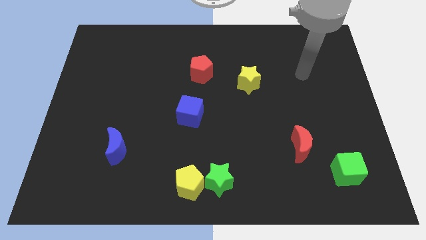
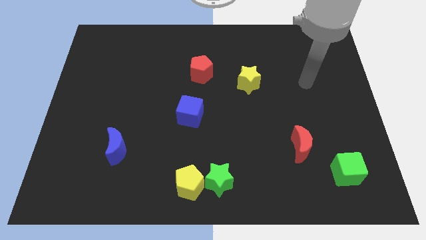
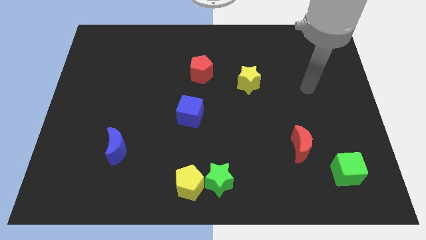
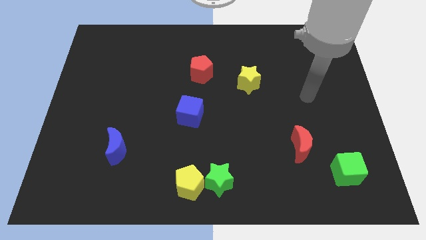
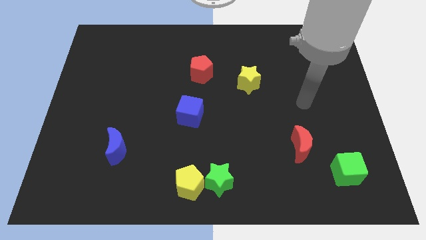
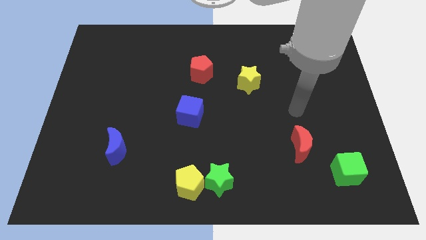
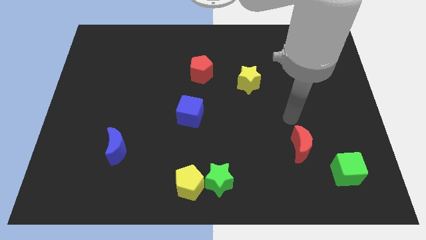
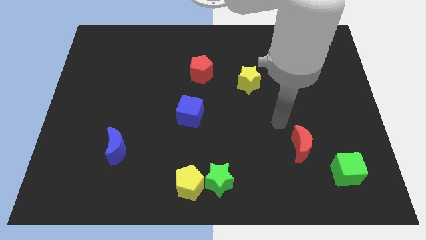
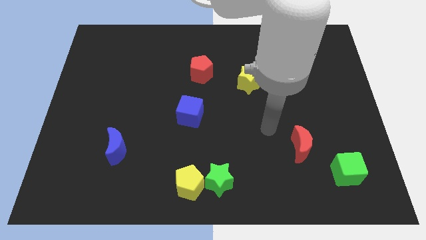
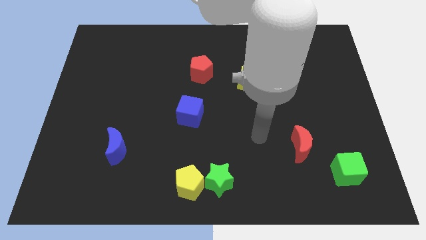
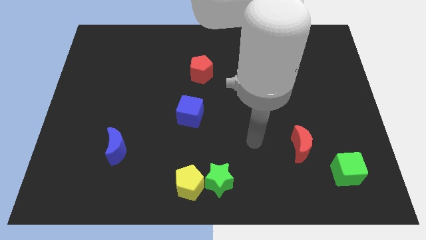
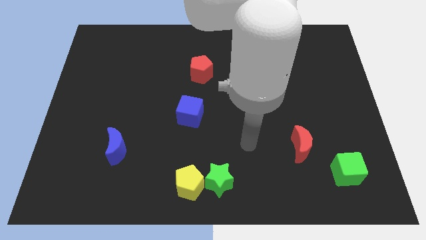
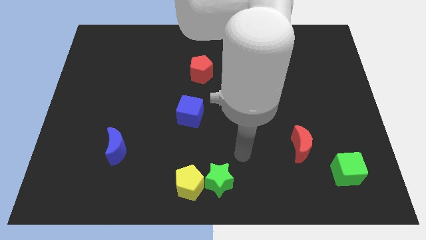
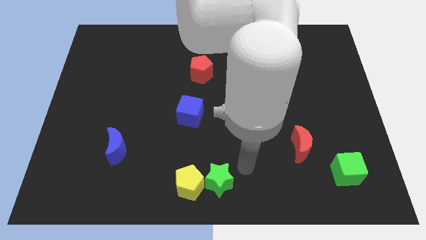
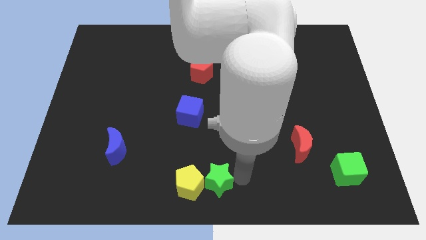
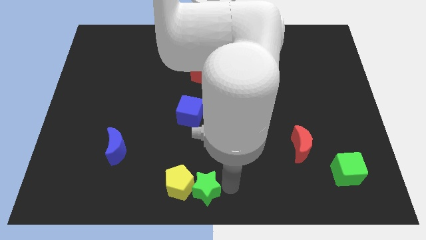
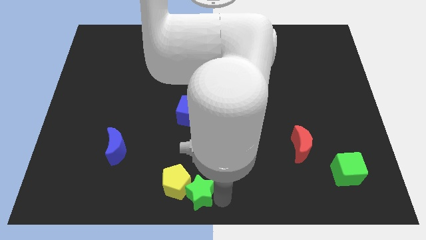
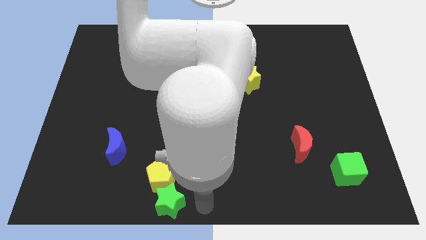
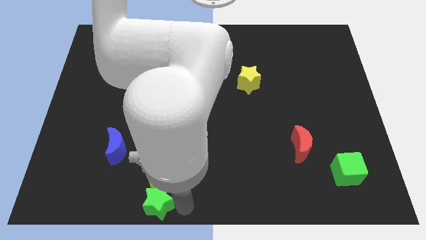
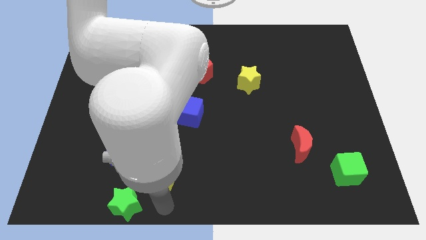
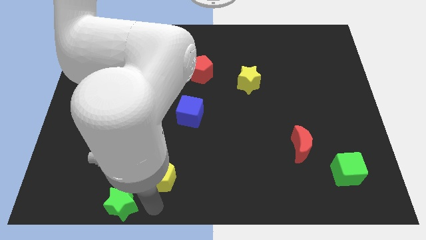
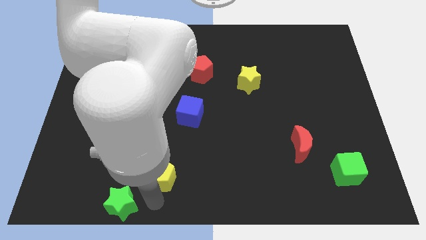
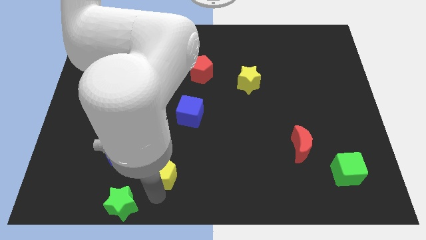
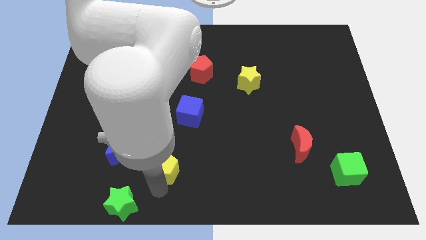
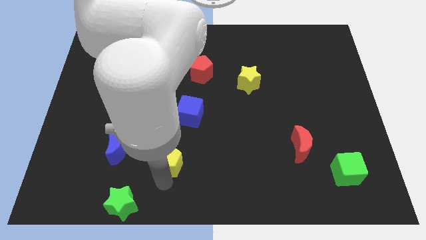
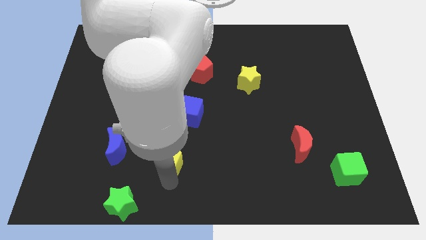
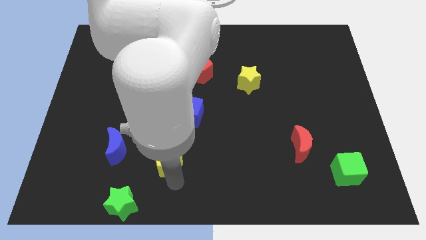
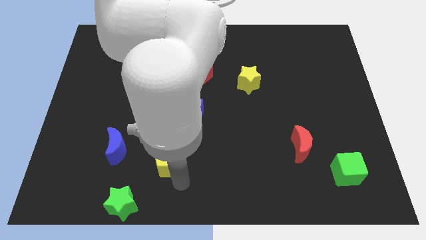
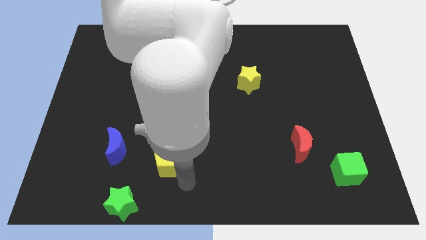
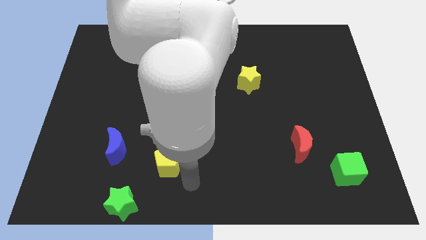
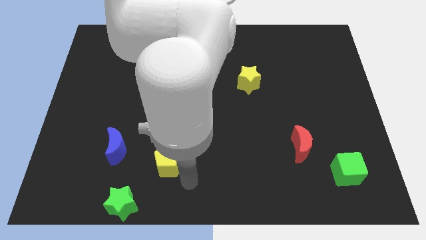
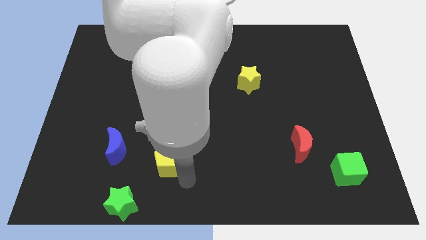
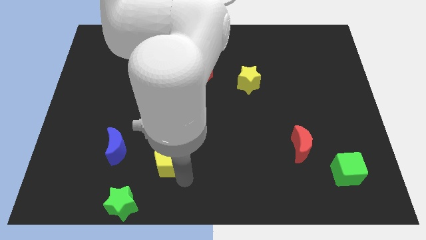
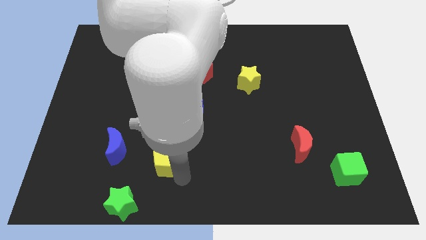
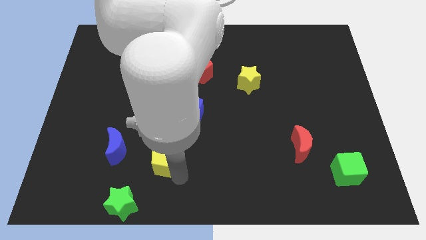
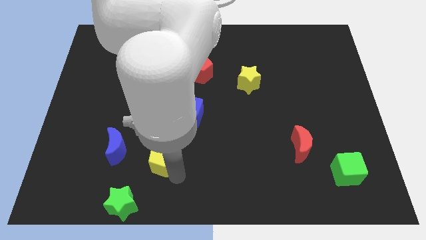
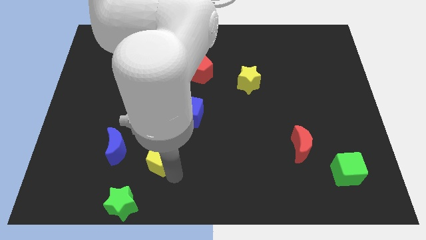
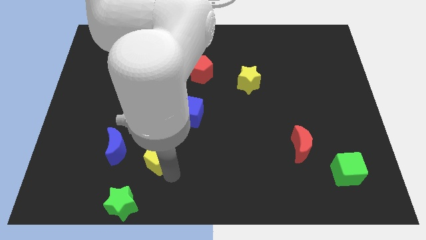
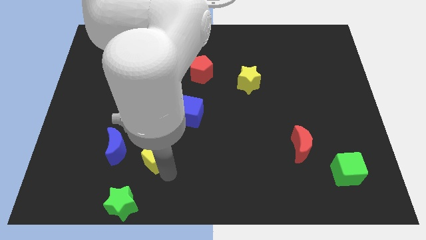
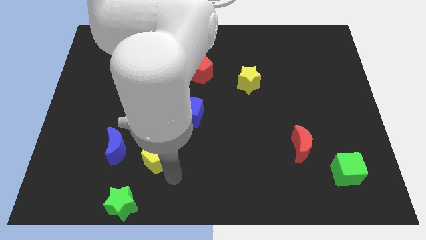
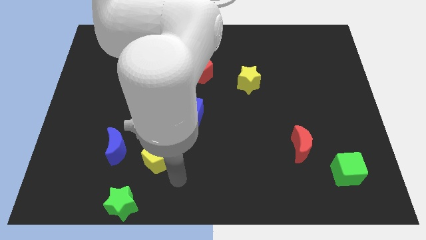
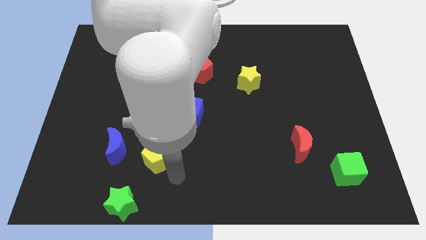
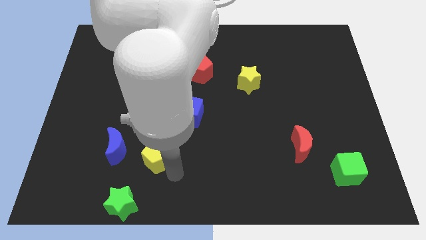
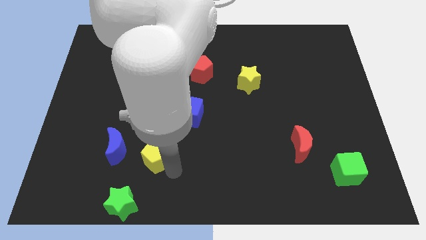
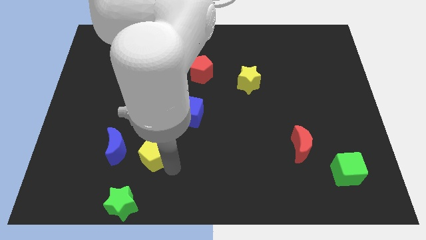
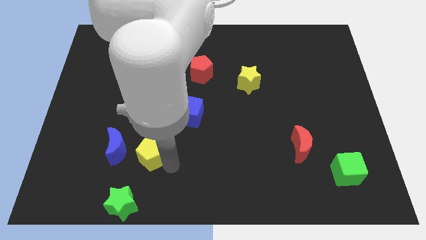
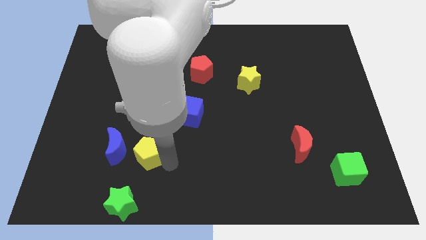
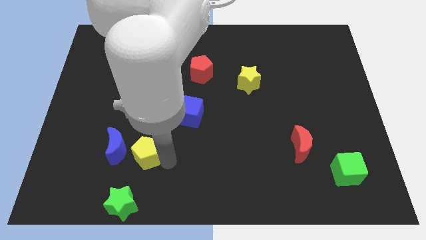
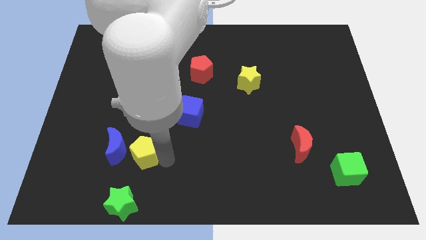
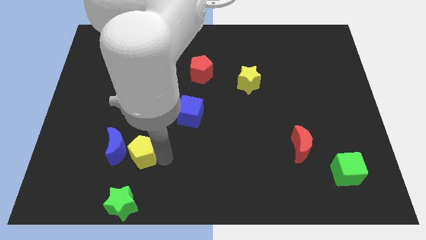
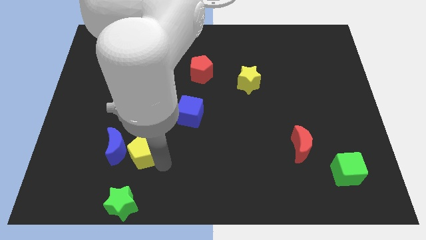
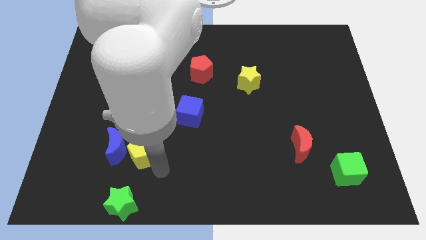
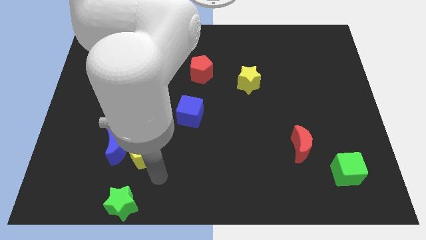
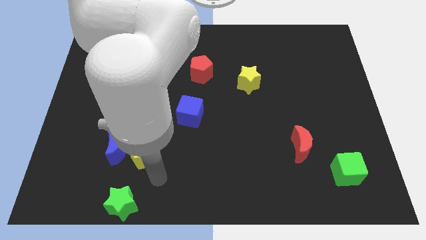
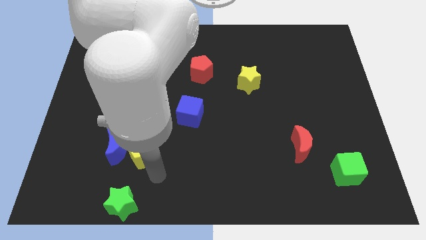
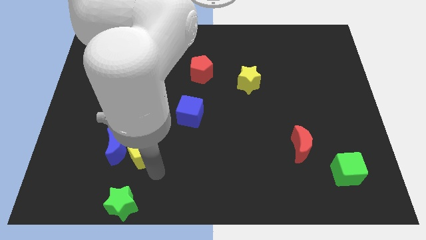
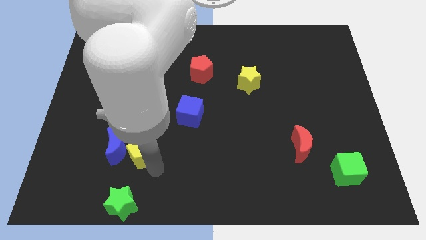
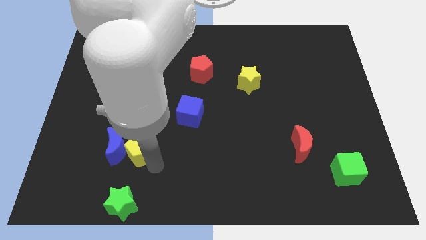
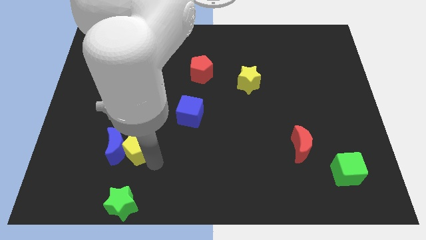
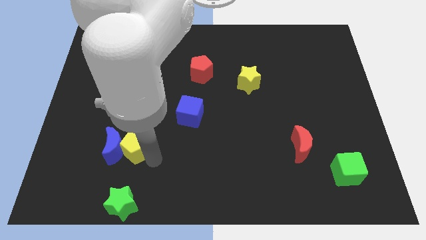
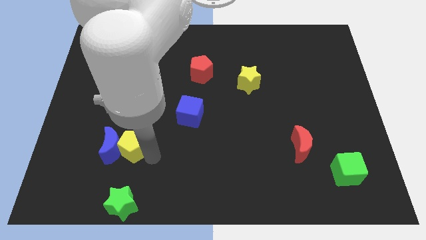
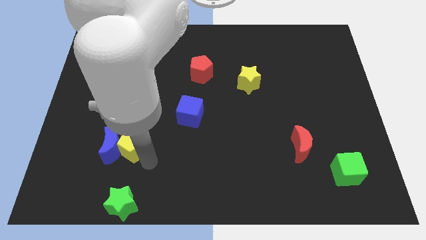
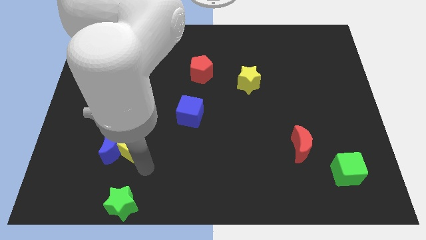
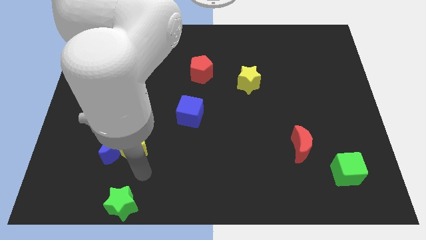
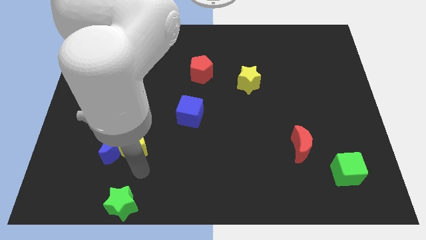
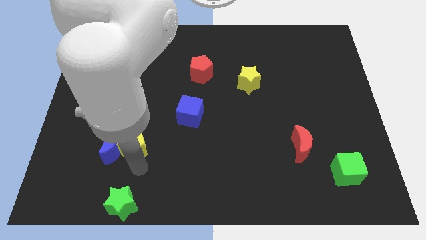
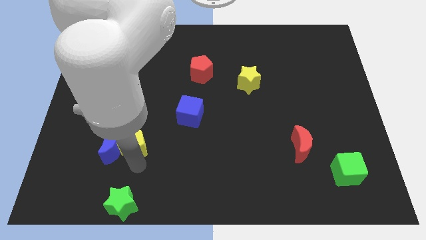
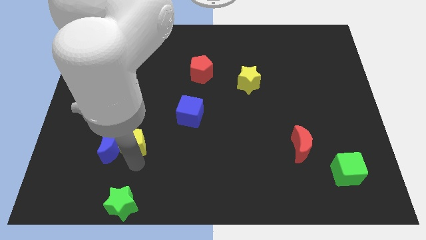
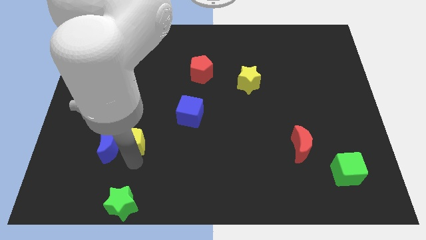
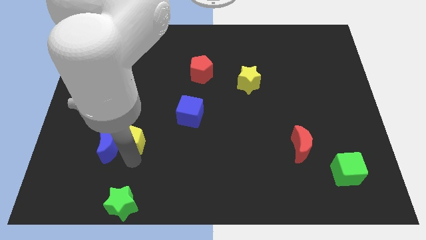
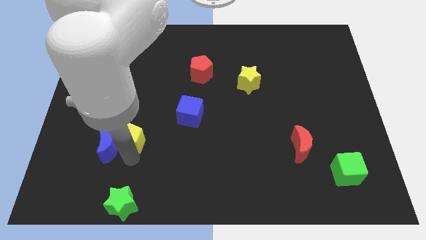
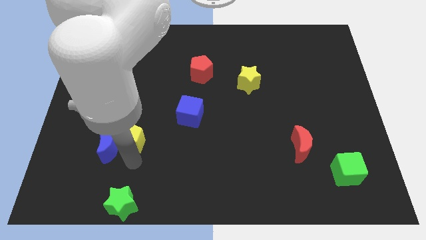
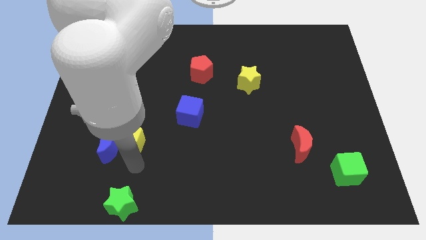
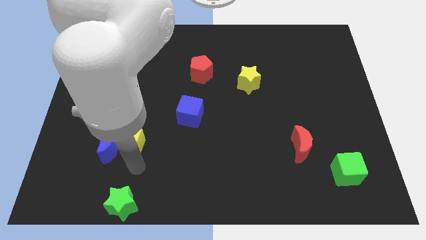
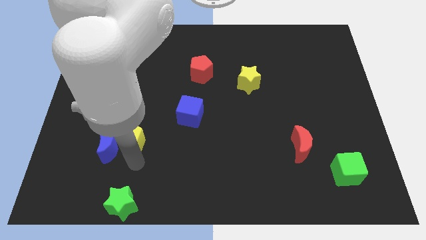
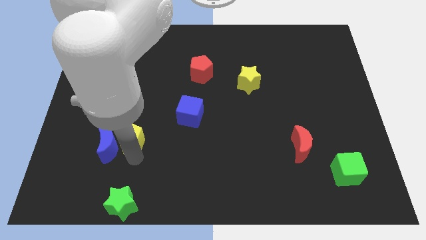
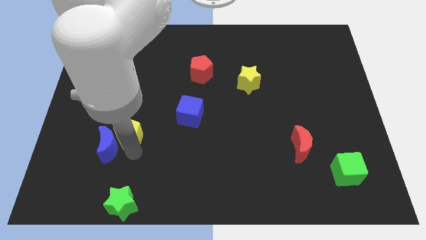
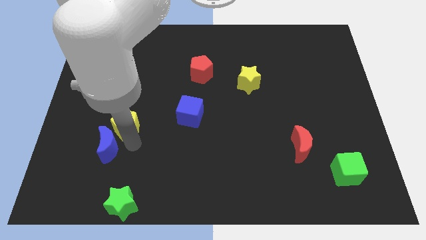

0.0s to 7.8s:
move the yellow pentagon upwards and left

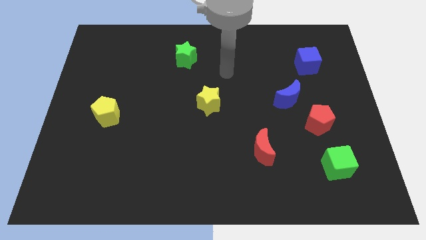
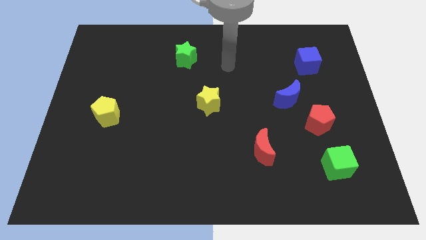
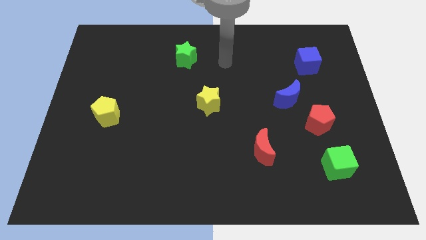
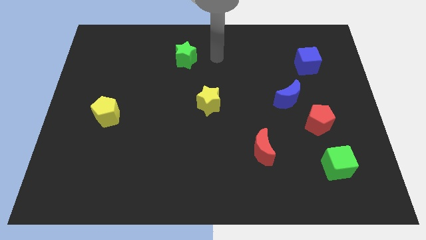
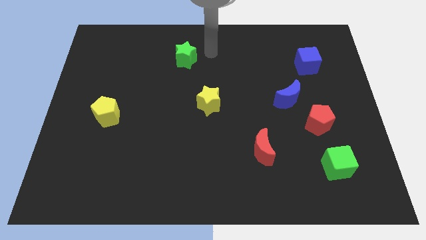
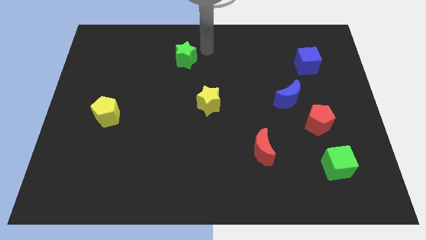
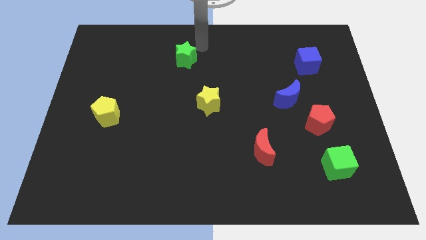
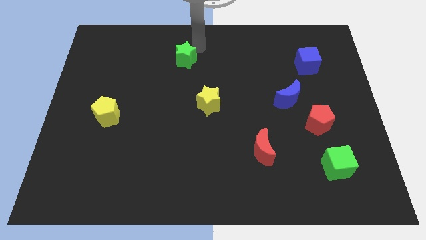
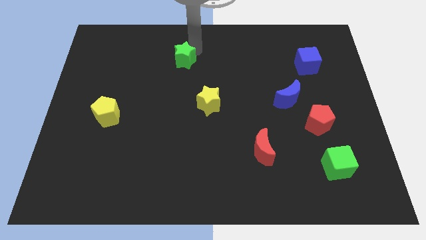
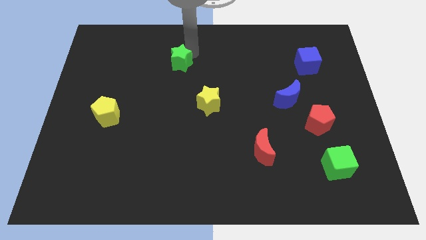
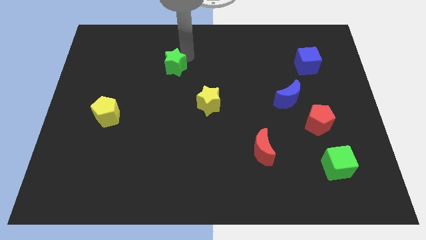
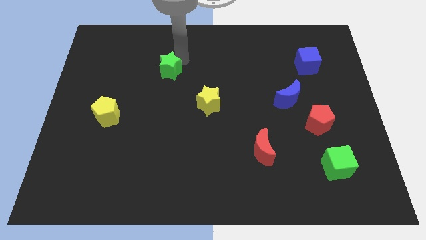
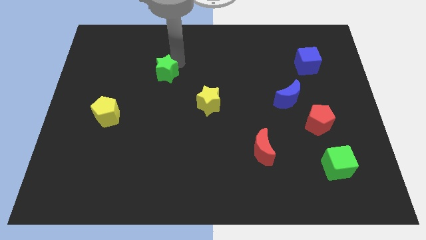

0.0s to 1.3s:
slightly move the green star down and to the left diagonally
